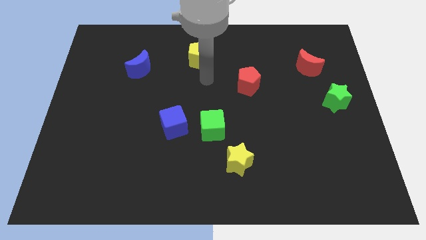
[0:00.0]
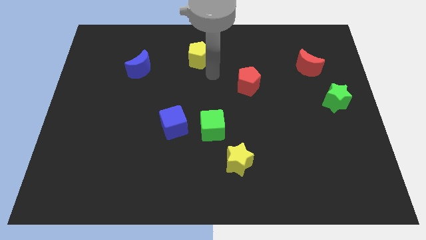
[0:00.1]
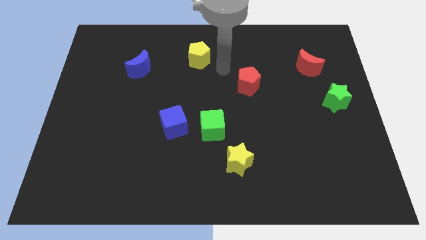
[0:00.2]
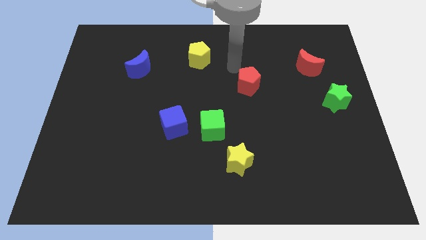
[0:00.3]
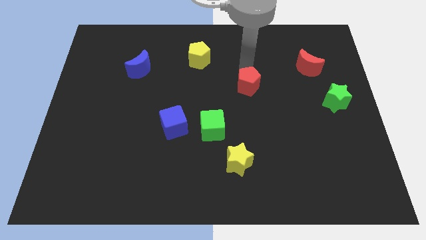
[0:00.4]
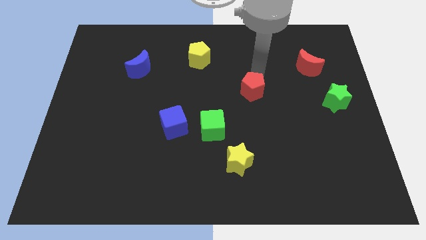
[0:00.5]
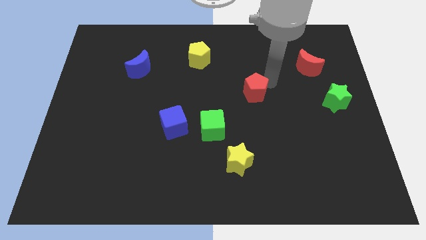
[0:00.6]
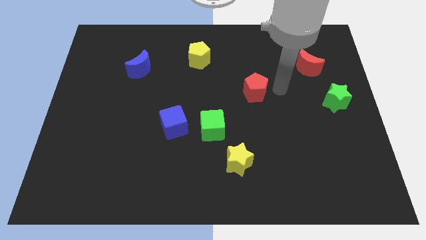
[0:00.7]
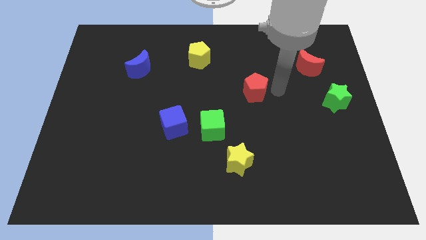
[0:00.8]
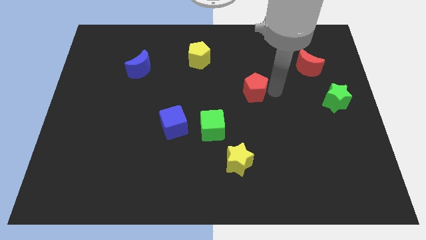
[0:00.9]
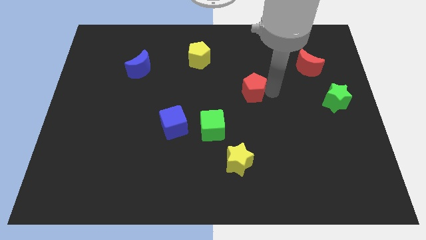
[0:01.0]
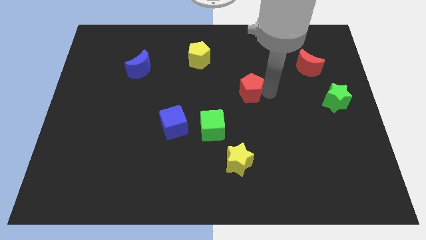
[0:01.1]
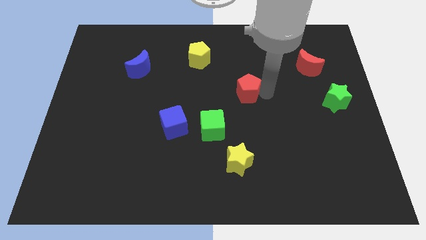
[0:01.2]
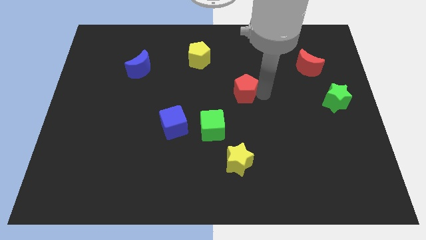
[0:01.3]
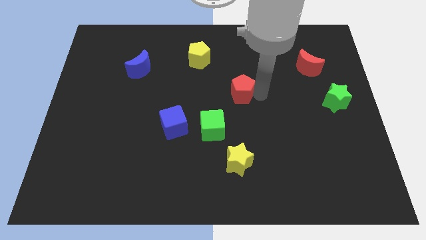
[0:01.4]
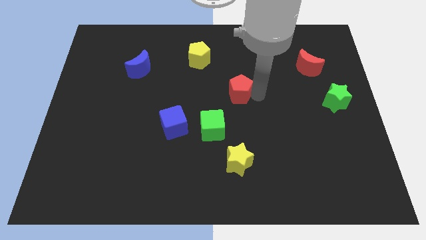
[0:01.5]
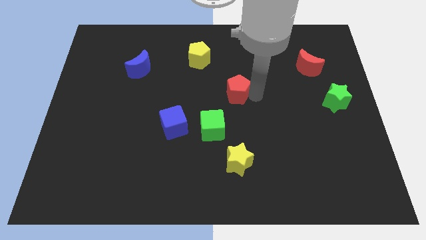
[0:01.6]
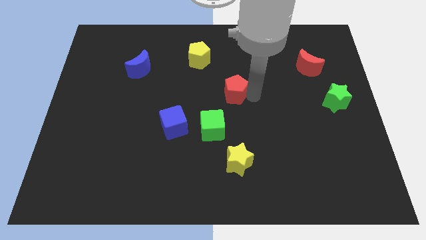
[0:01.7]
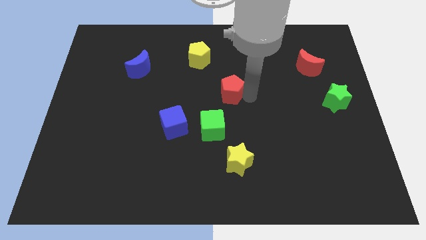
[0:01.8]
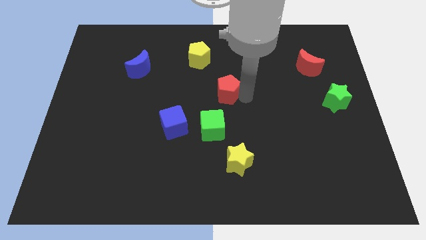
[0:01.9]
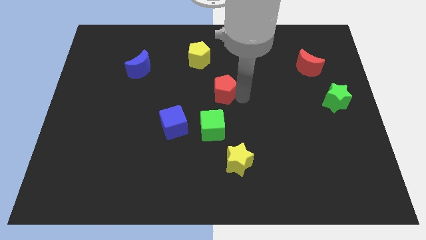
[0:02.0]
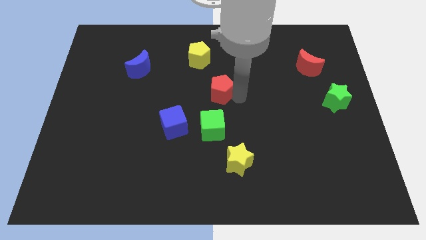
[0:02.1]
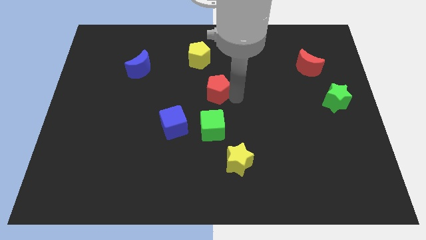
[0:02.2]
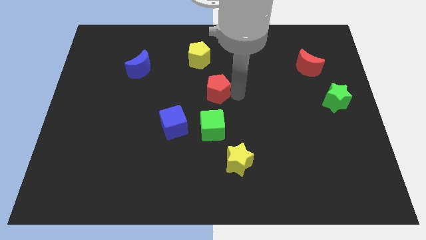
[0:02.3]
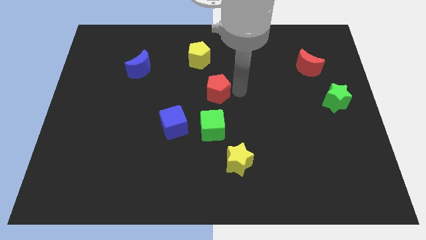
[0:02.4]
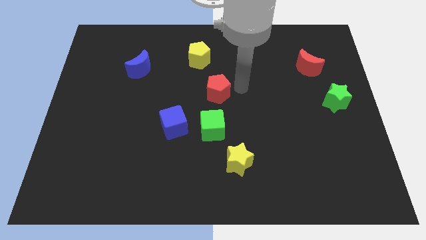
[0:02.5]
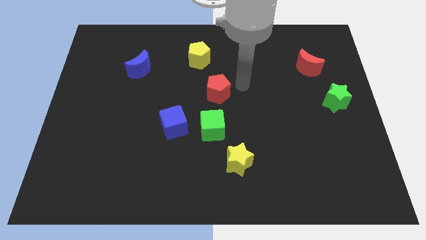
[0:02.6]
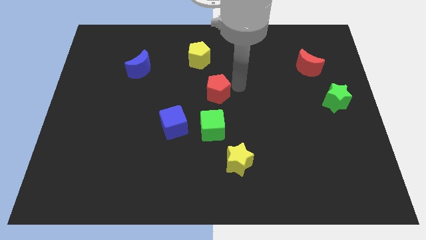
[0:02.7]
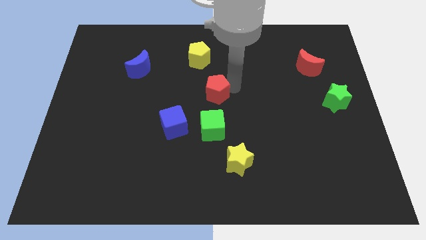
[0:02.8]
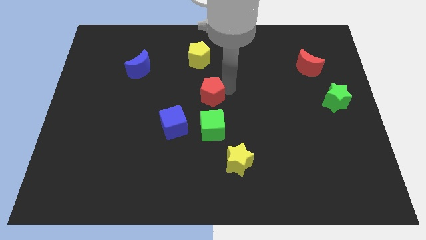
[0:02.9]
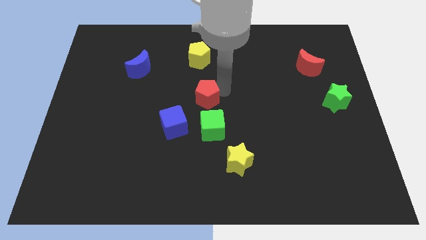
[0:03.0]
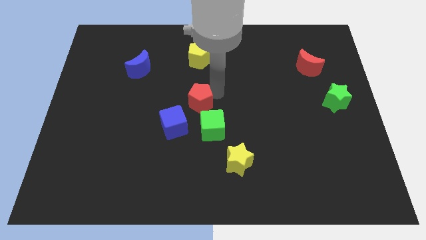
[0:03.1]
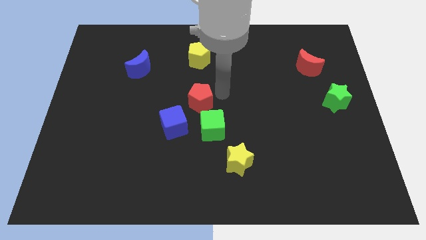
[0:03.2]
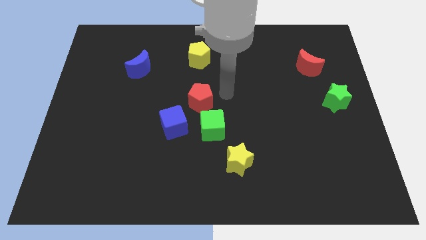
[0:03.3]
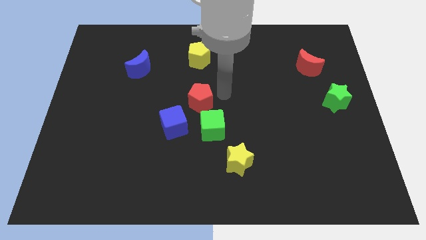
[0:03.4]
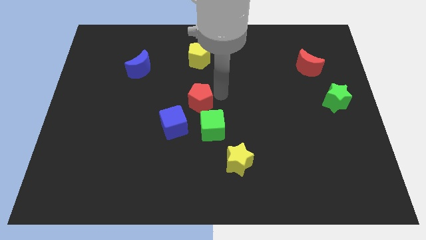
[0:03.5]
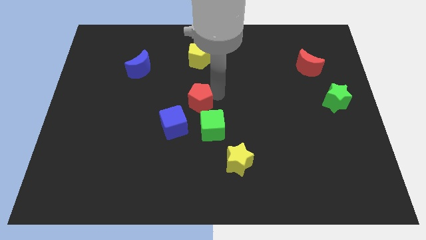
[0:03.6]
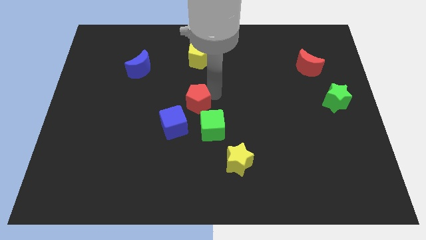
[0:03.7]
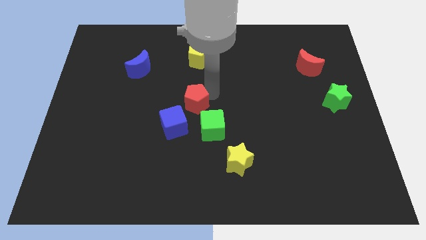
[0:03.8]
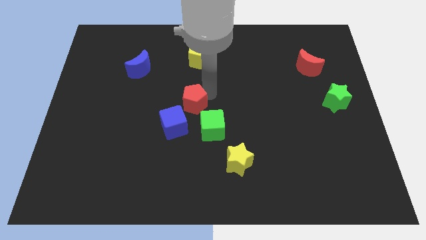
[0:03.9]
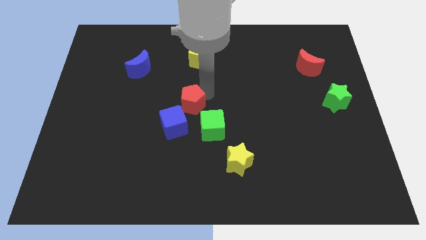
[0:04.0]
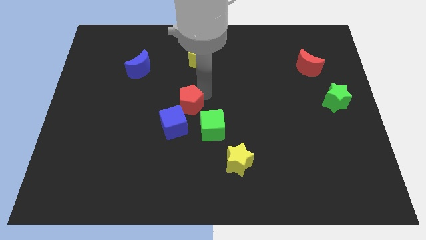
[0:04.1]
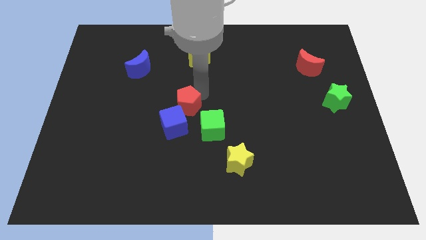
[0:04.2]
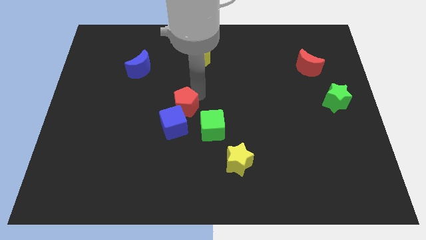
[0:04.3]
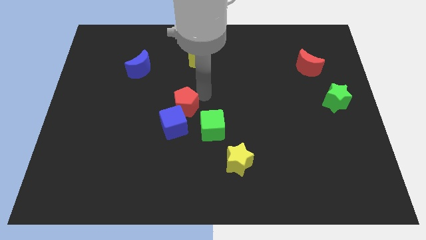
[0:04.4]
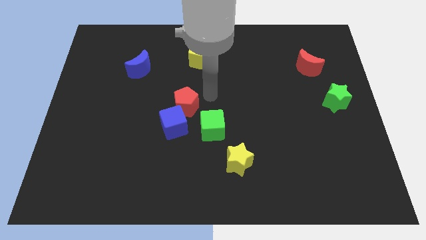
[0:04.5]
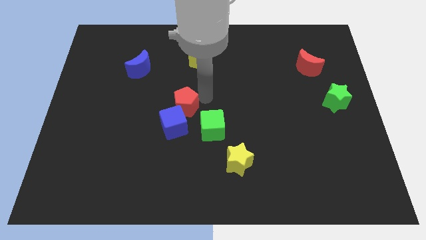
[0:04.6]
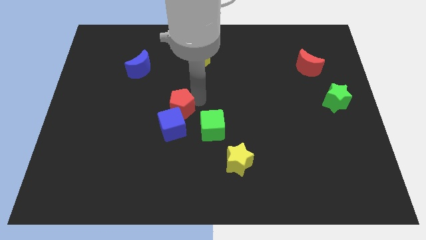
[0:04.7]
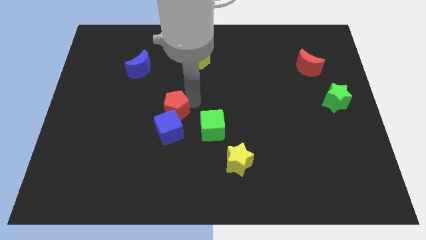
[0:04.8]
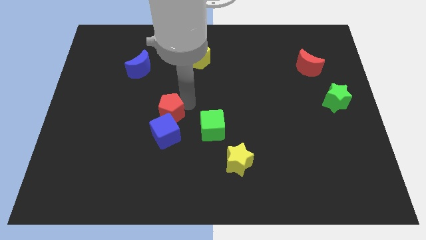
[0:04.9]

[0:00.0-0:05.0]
push the red pentagon to the left side of the green cube

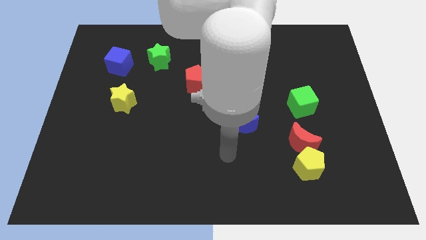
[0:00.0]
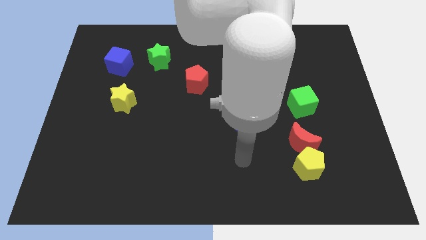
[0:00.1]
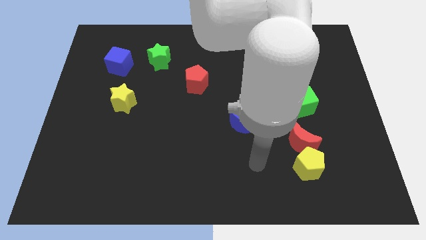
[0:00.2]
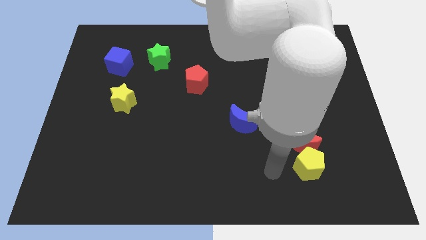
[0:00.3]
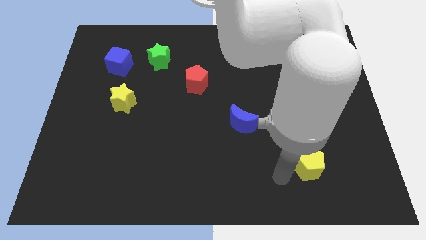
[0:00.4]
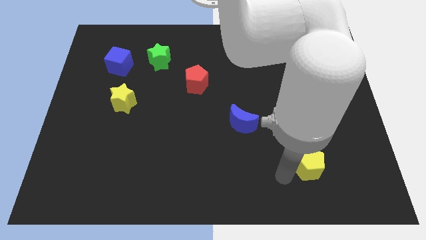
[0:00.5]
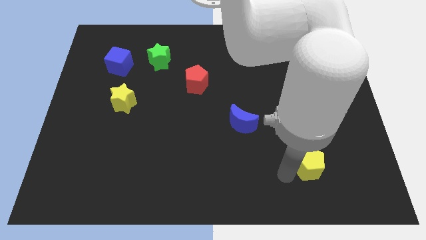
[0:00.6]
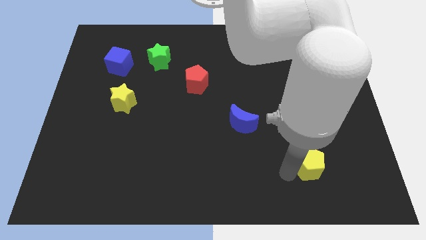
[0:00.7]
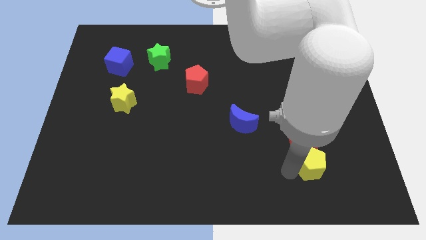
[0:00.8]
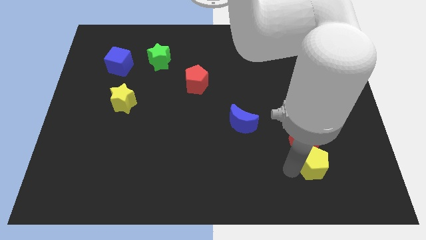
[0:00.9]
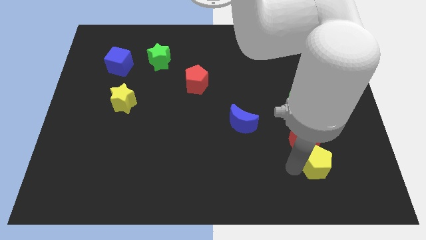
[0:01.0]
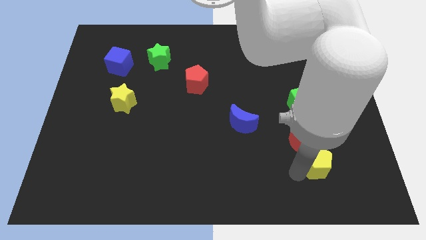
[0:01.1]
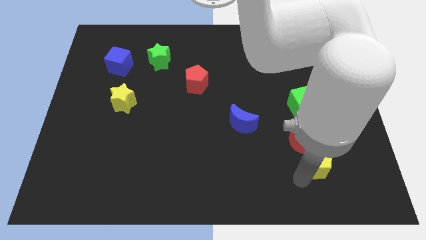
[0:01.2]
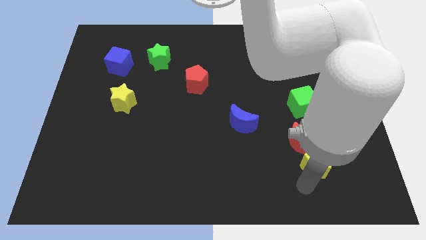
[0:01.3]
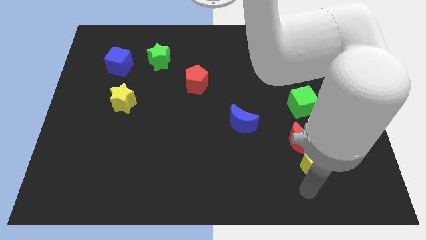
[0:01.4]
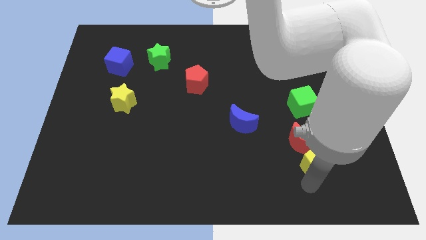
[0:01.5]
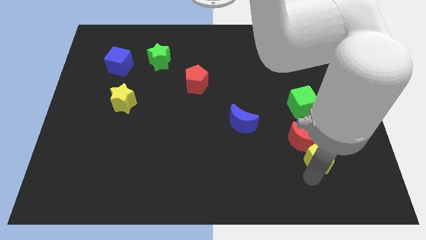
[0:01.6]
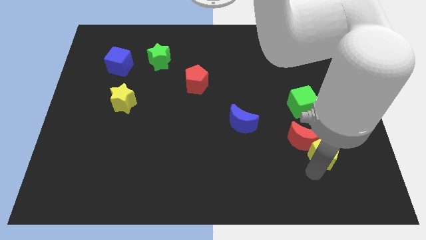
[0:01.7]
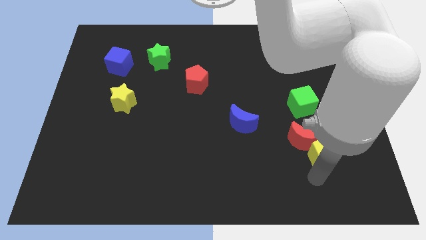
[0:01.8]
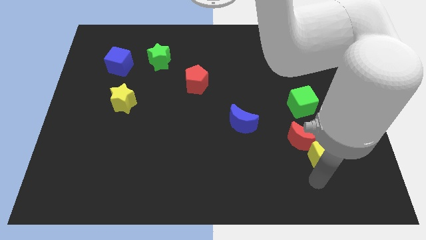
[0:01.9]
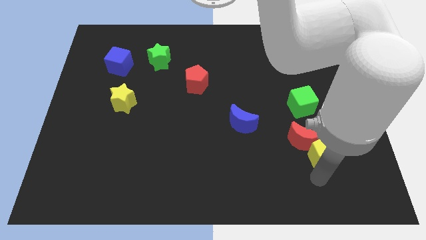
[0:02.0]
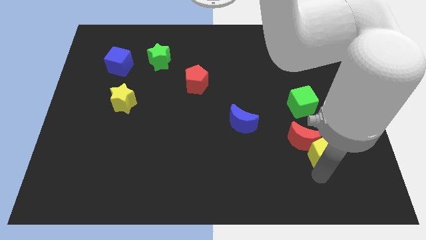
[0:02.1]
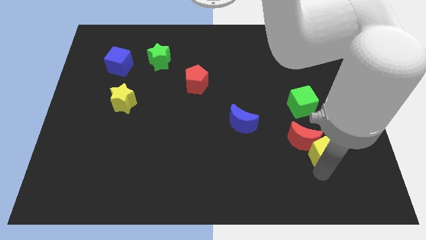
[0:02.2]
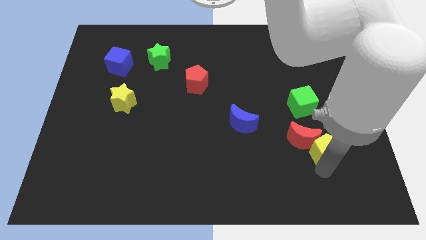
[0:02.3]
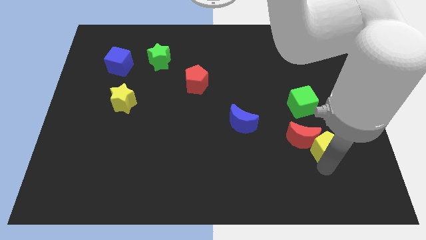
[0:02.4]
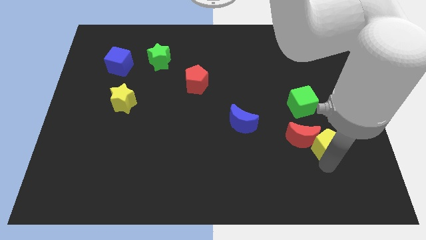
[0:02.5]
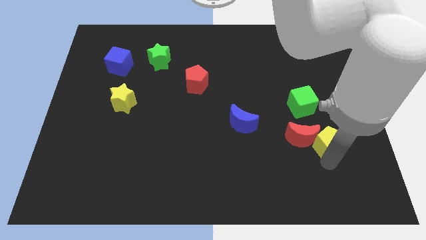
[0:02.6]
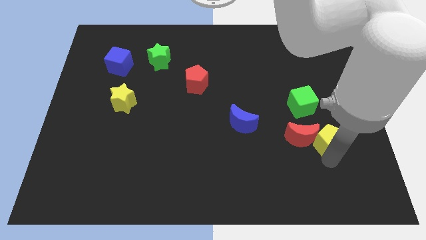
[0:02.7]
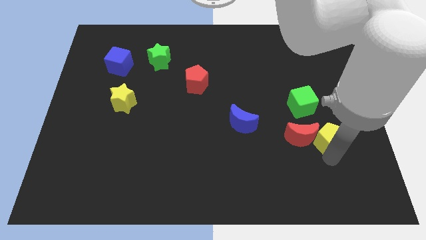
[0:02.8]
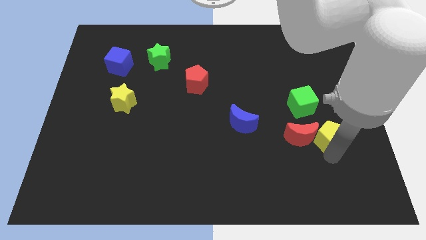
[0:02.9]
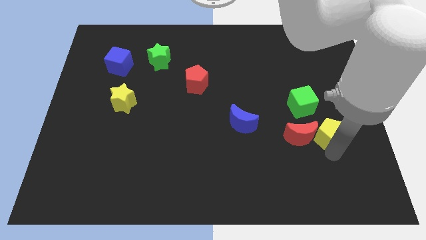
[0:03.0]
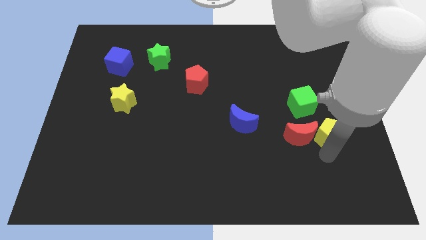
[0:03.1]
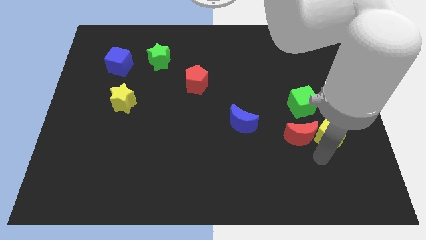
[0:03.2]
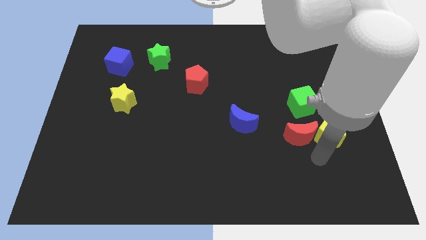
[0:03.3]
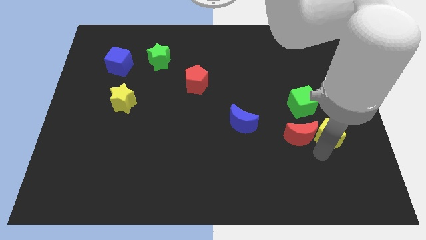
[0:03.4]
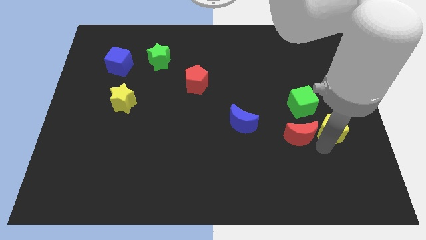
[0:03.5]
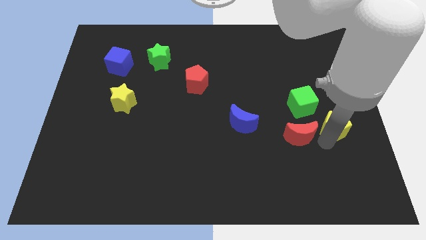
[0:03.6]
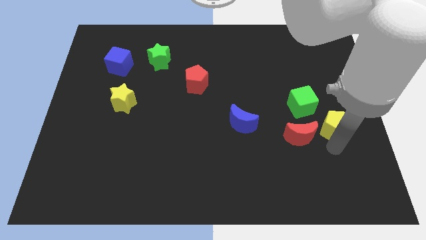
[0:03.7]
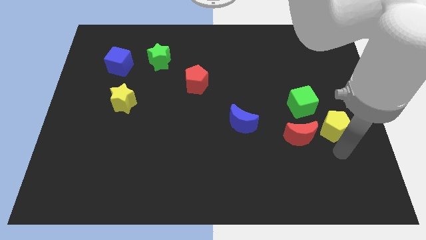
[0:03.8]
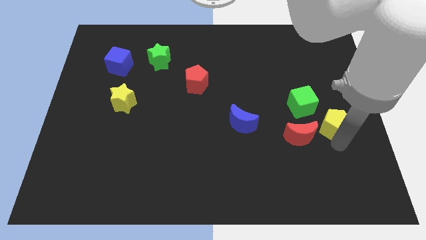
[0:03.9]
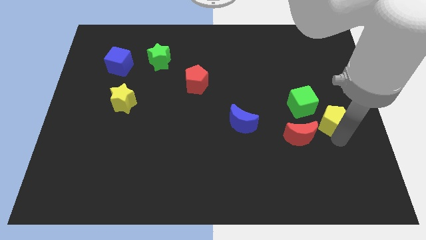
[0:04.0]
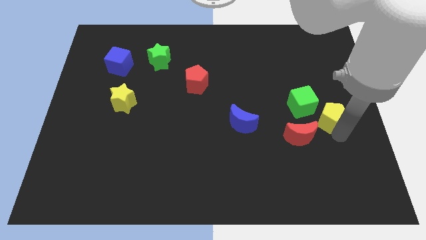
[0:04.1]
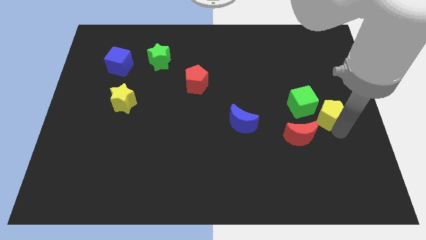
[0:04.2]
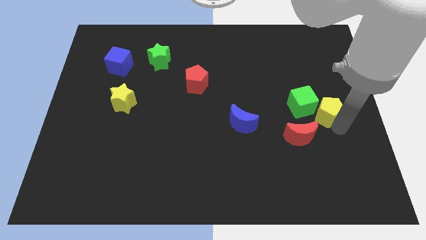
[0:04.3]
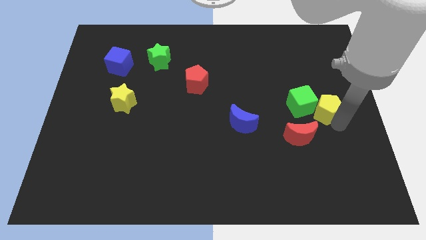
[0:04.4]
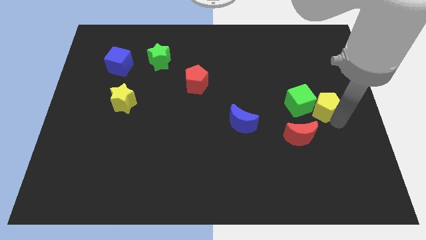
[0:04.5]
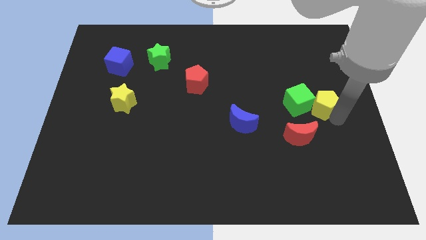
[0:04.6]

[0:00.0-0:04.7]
move the yellow pentagon to the top right side of the green cube
